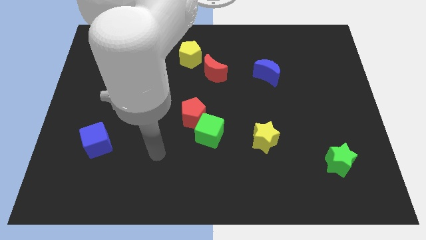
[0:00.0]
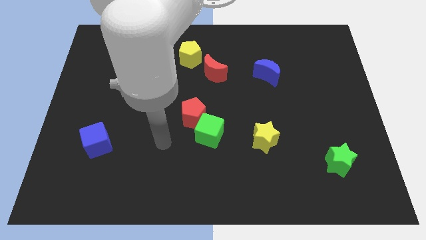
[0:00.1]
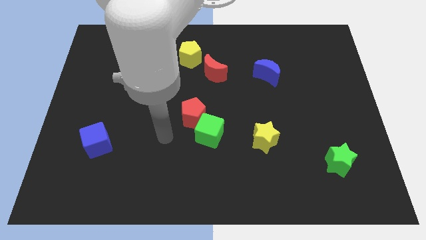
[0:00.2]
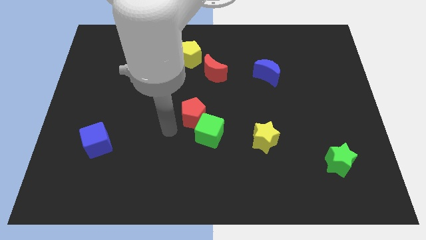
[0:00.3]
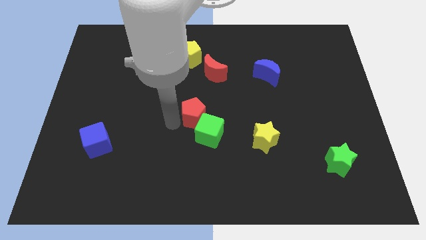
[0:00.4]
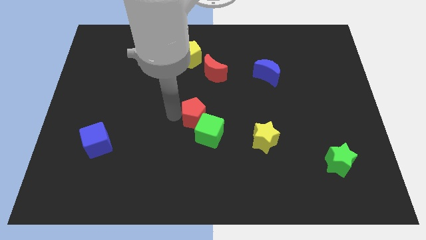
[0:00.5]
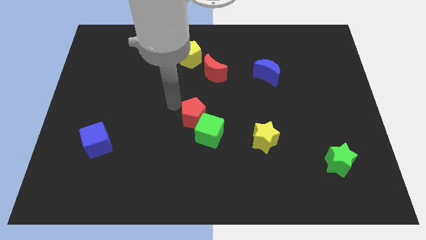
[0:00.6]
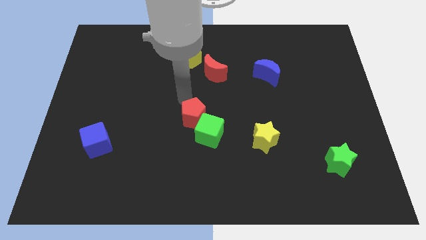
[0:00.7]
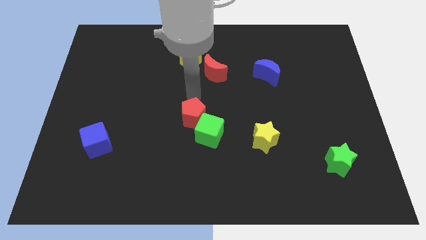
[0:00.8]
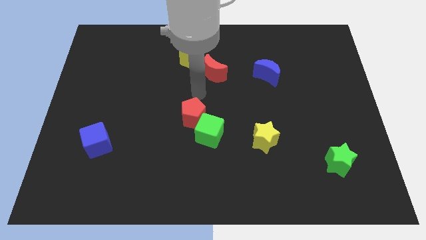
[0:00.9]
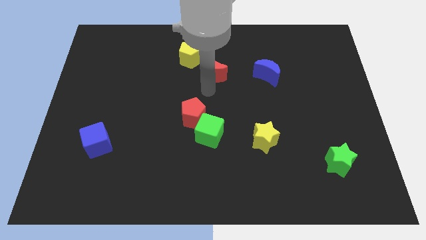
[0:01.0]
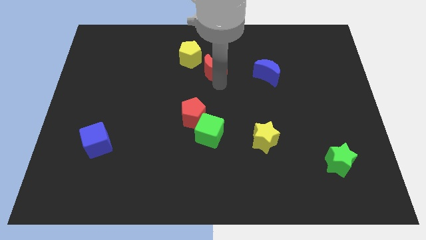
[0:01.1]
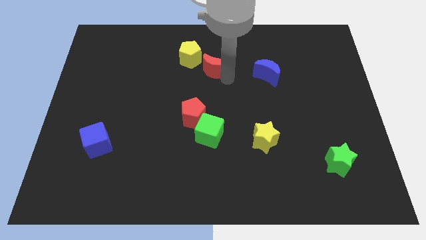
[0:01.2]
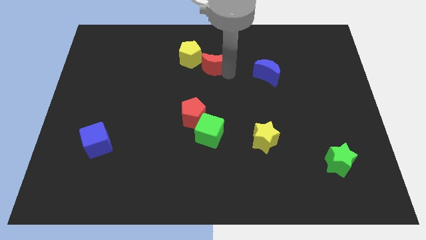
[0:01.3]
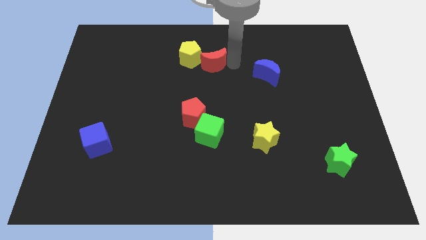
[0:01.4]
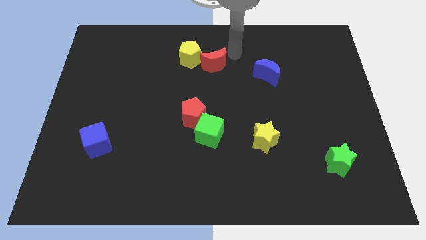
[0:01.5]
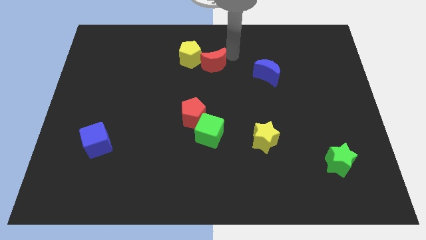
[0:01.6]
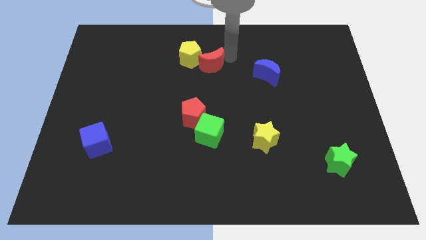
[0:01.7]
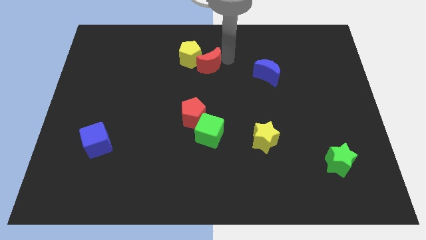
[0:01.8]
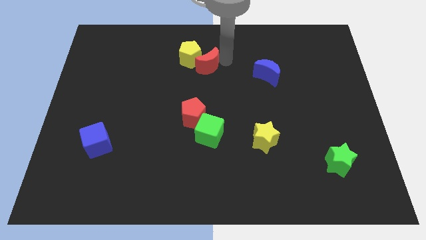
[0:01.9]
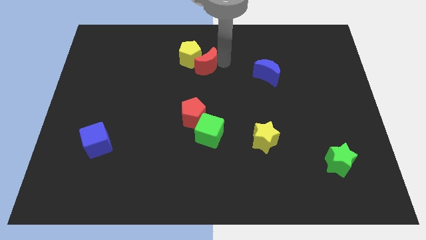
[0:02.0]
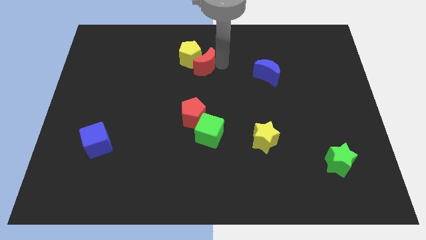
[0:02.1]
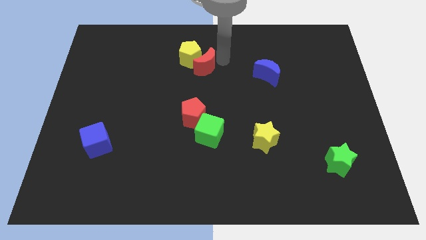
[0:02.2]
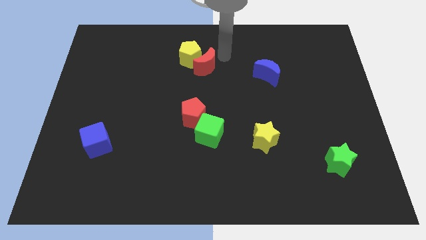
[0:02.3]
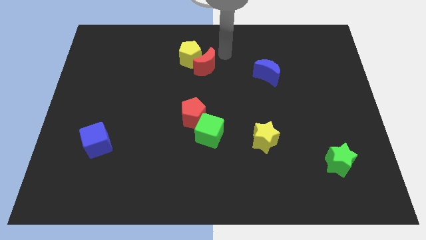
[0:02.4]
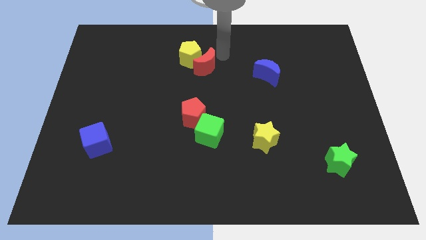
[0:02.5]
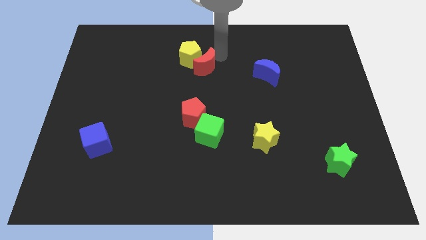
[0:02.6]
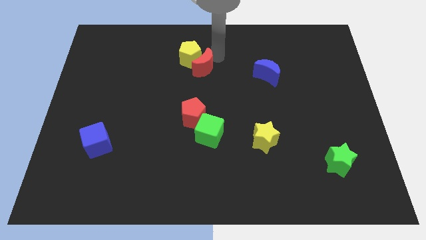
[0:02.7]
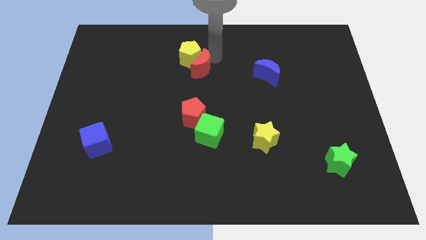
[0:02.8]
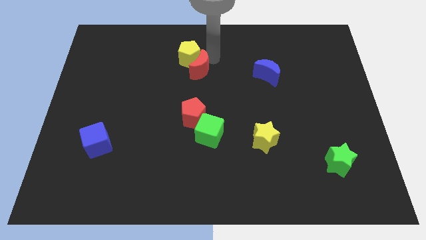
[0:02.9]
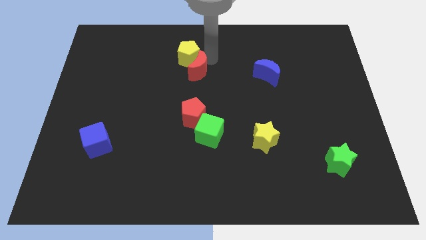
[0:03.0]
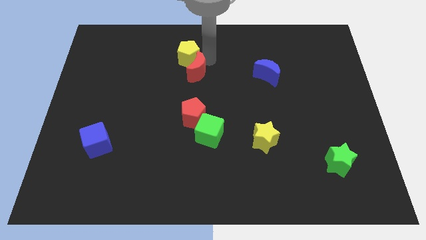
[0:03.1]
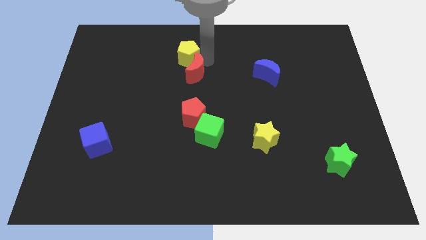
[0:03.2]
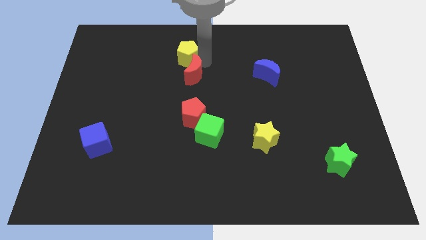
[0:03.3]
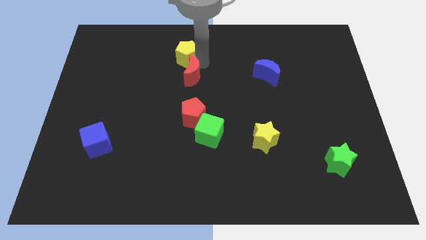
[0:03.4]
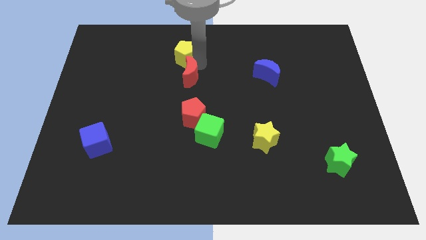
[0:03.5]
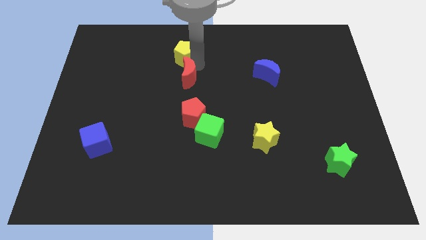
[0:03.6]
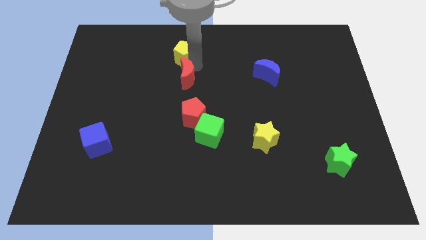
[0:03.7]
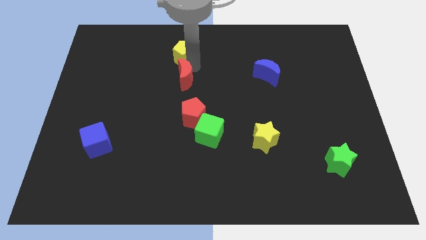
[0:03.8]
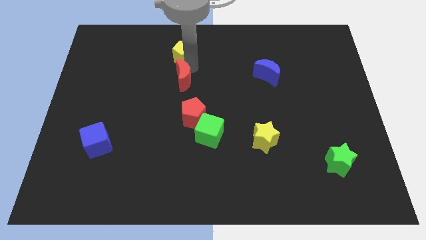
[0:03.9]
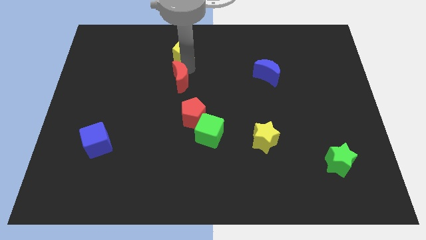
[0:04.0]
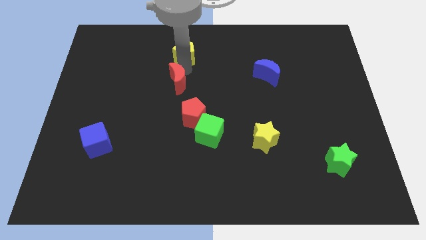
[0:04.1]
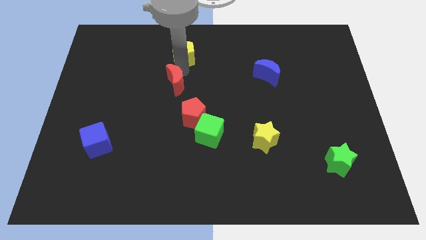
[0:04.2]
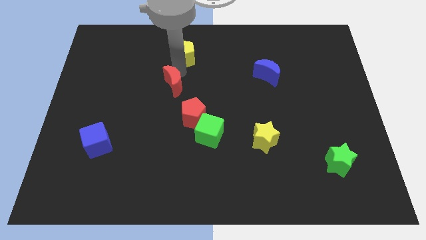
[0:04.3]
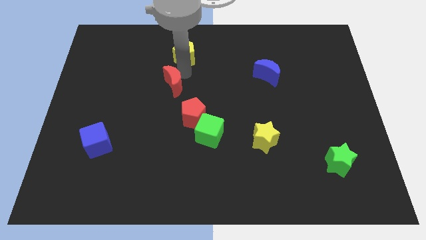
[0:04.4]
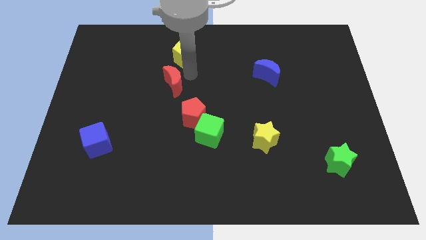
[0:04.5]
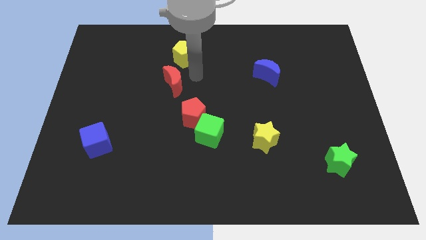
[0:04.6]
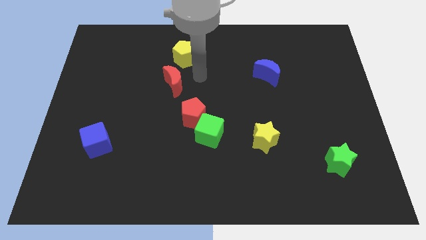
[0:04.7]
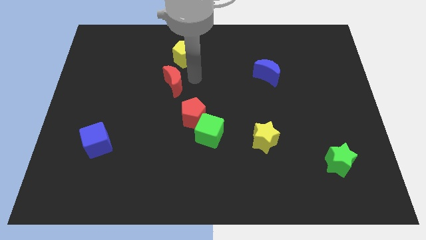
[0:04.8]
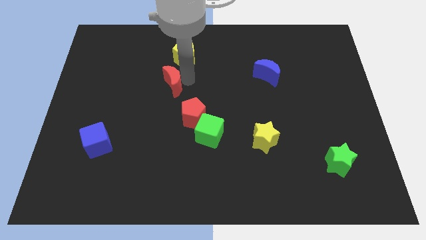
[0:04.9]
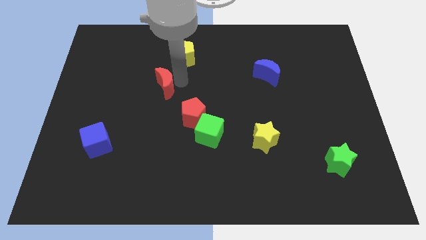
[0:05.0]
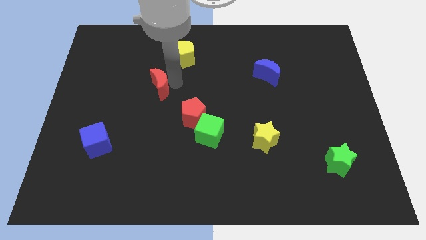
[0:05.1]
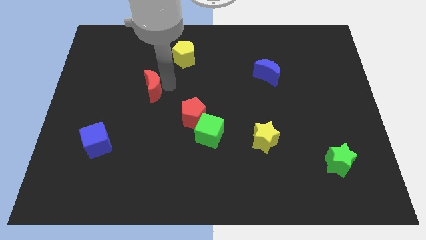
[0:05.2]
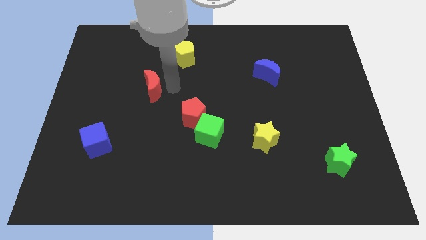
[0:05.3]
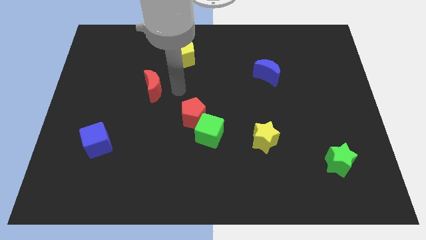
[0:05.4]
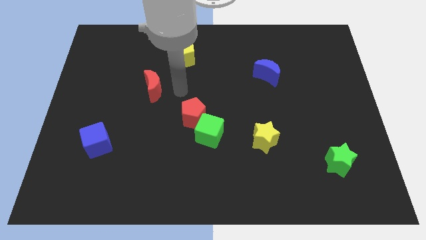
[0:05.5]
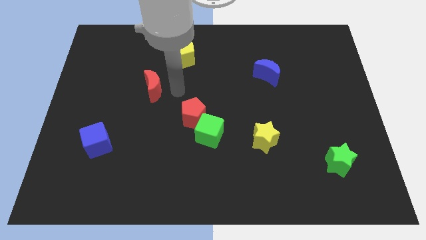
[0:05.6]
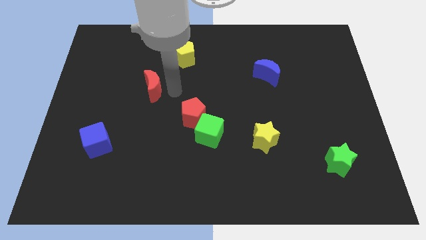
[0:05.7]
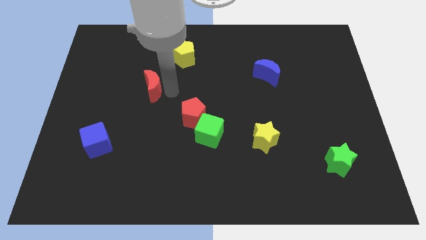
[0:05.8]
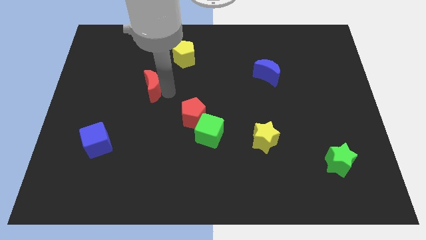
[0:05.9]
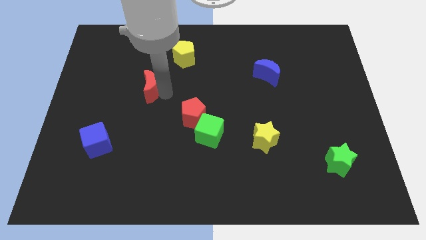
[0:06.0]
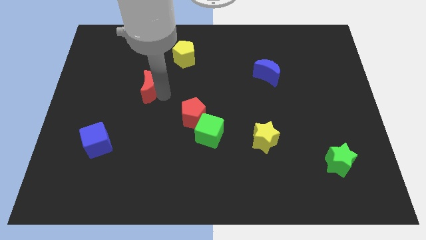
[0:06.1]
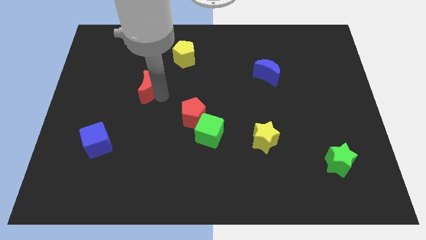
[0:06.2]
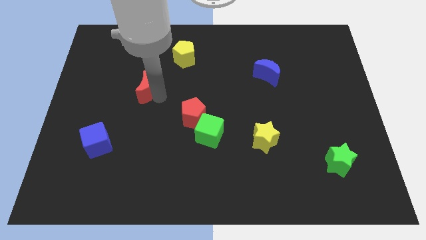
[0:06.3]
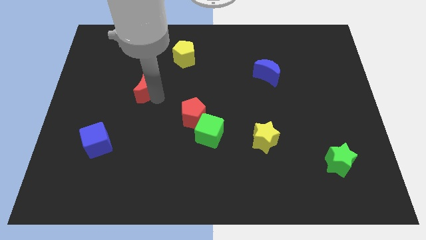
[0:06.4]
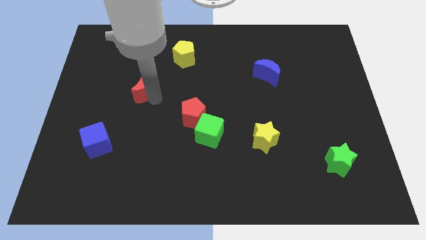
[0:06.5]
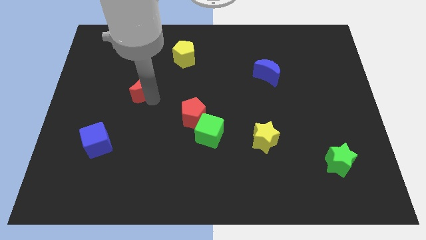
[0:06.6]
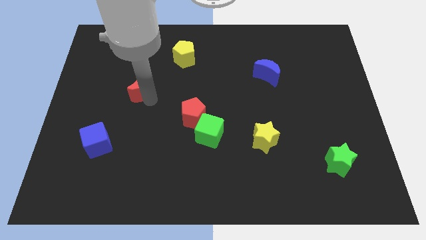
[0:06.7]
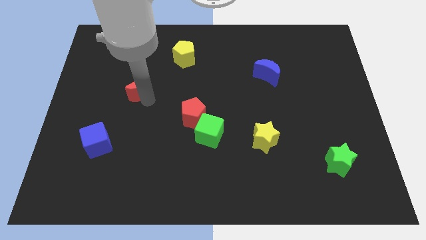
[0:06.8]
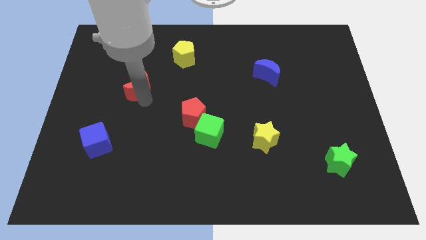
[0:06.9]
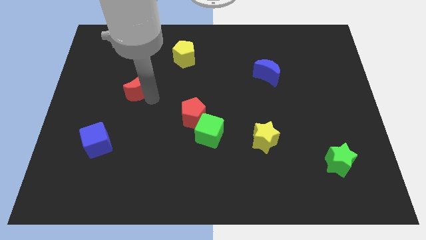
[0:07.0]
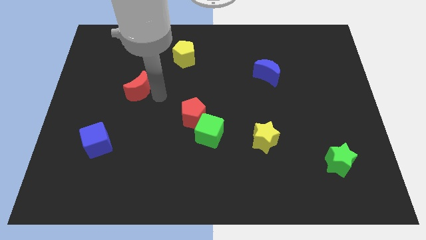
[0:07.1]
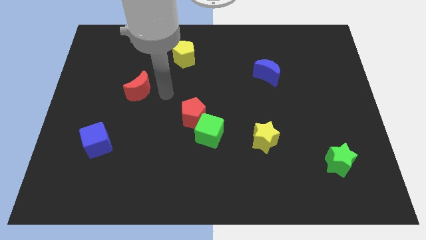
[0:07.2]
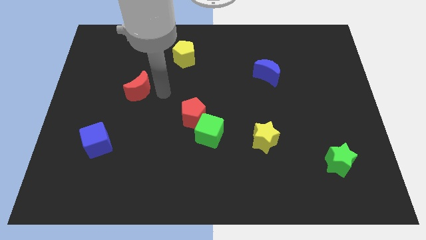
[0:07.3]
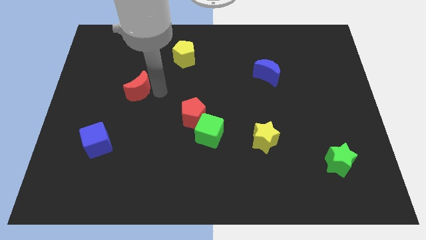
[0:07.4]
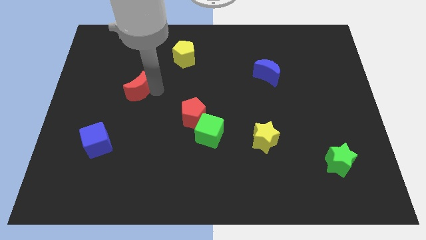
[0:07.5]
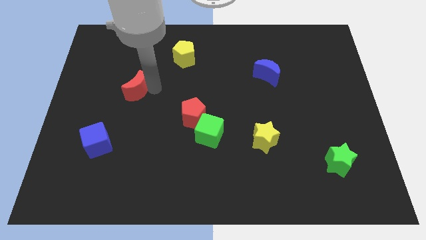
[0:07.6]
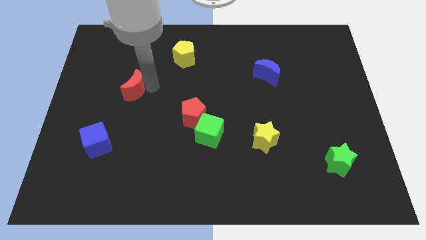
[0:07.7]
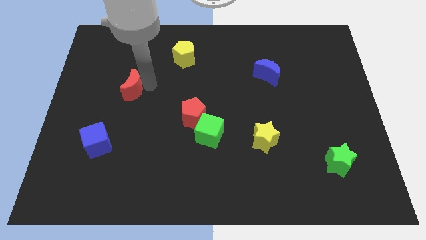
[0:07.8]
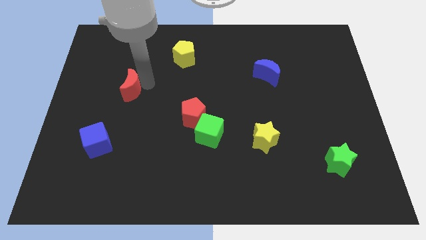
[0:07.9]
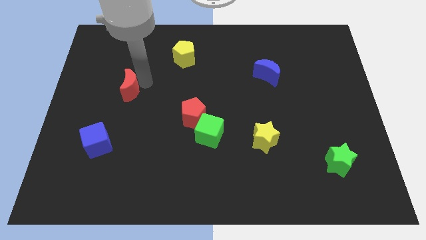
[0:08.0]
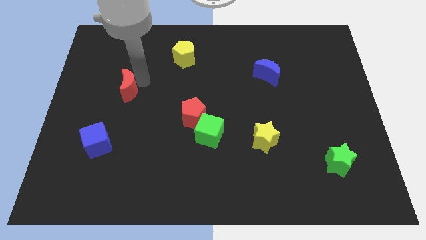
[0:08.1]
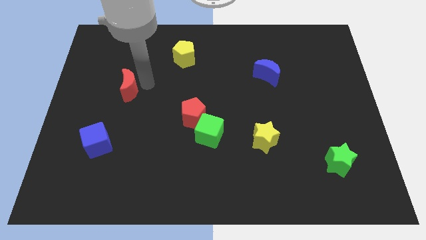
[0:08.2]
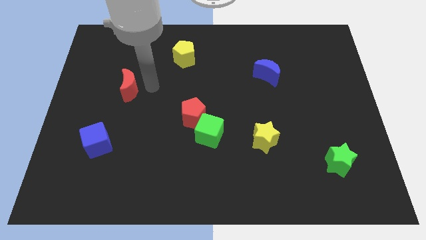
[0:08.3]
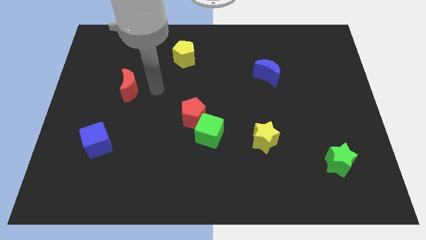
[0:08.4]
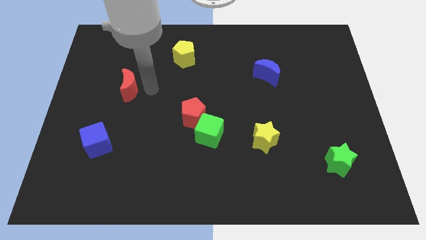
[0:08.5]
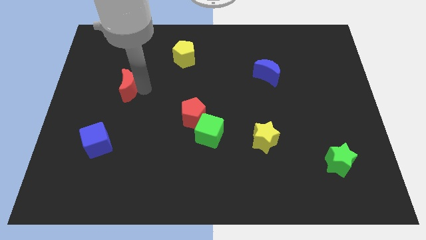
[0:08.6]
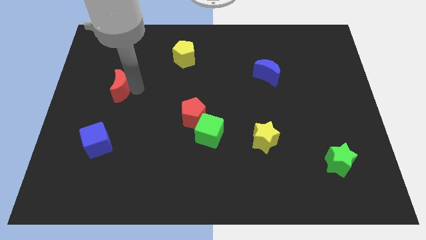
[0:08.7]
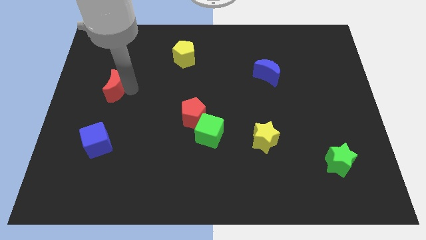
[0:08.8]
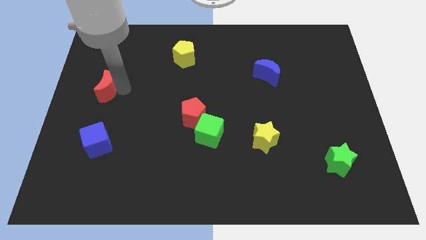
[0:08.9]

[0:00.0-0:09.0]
move the red moon to the left side of the board
